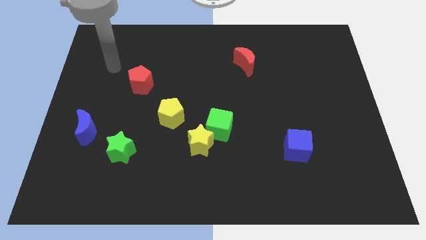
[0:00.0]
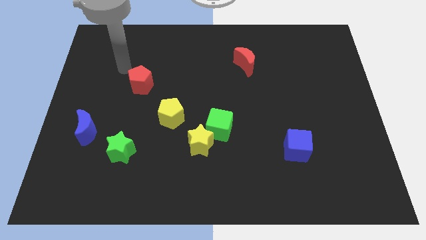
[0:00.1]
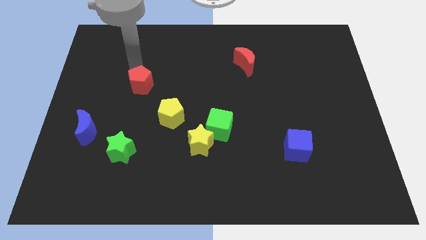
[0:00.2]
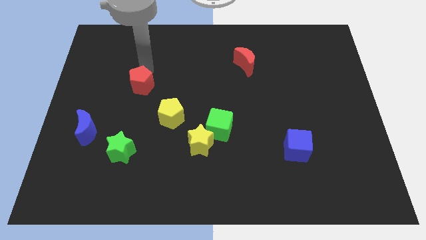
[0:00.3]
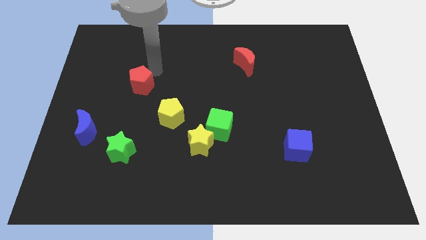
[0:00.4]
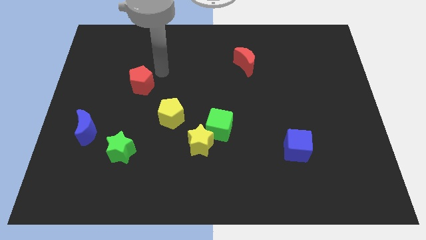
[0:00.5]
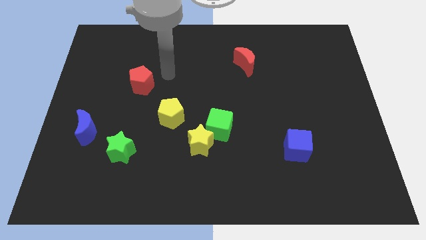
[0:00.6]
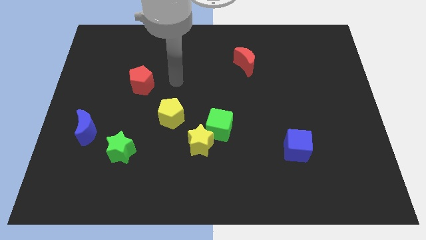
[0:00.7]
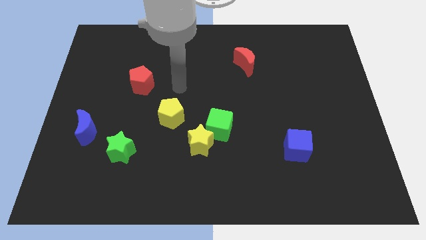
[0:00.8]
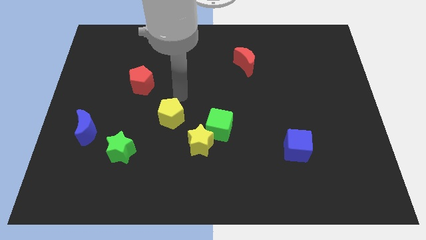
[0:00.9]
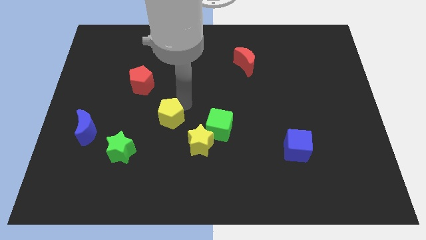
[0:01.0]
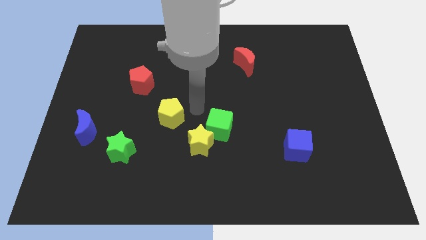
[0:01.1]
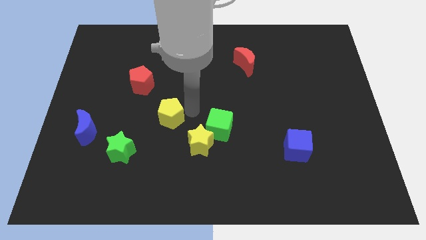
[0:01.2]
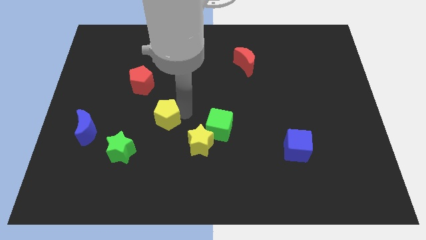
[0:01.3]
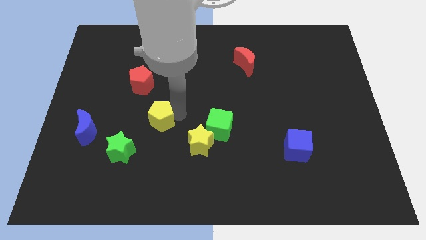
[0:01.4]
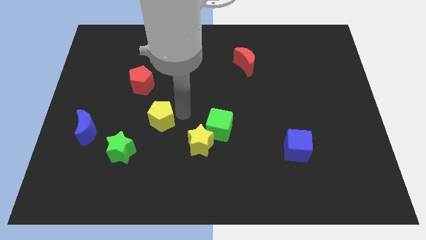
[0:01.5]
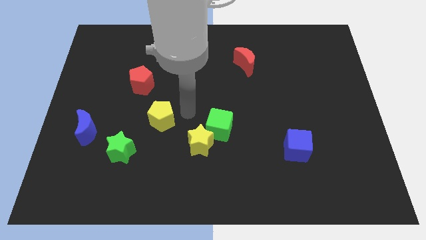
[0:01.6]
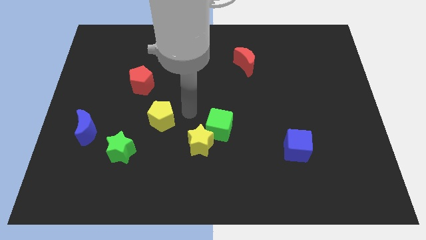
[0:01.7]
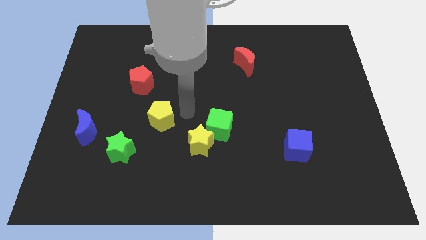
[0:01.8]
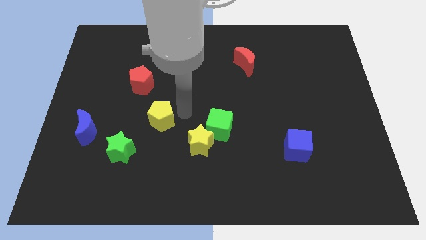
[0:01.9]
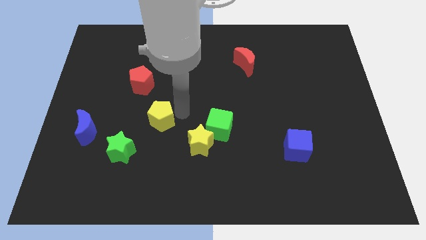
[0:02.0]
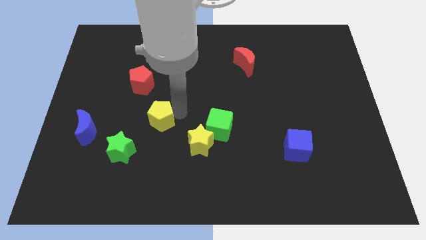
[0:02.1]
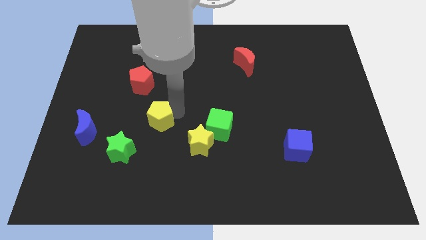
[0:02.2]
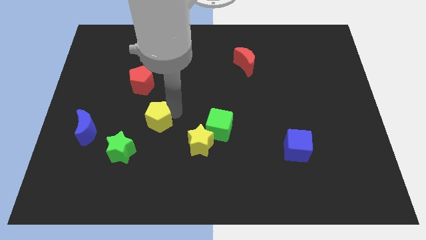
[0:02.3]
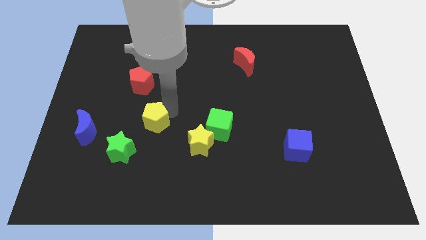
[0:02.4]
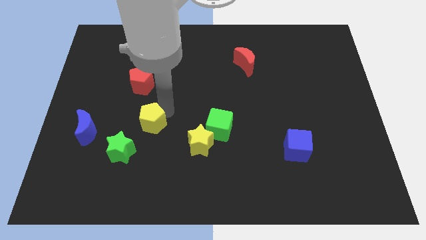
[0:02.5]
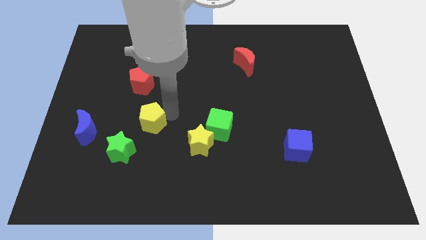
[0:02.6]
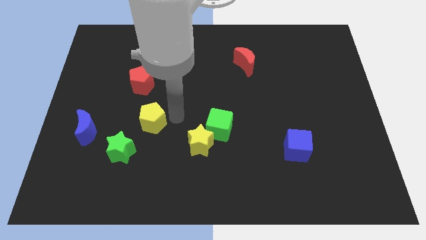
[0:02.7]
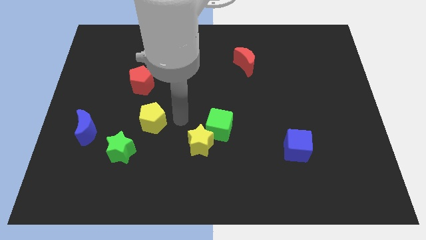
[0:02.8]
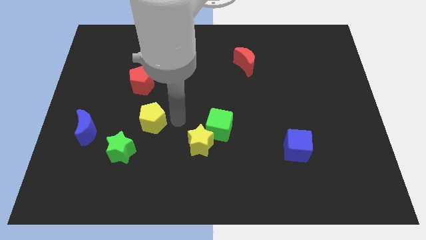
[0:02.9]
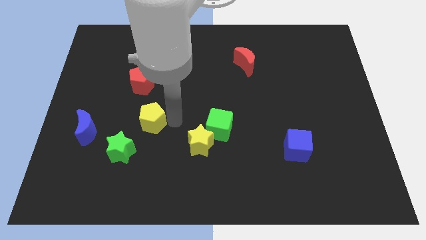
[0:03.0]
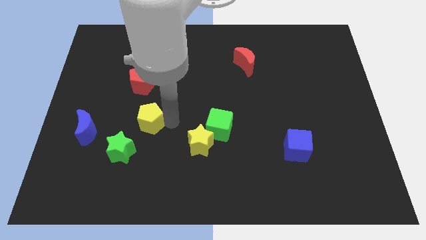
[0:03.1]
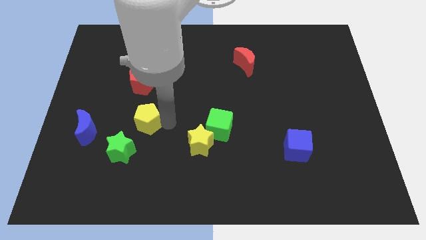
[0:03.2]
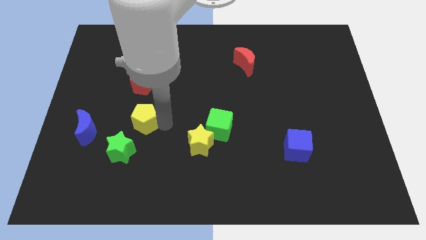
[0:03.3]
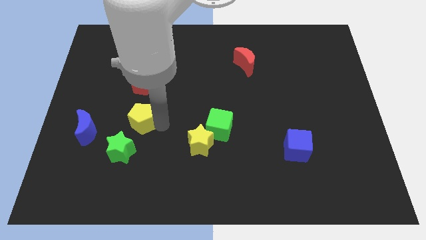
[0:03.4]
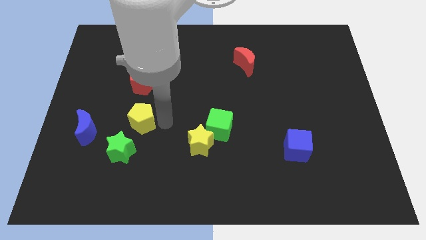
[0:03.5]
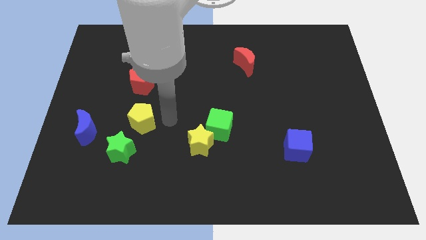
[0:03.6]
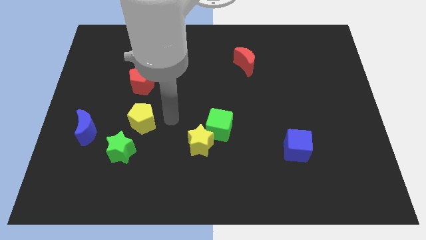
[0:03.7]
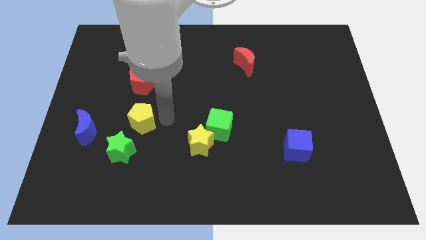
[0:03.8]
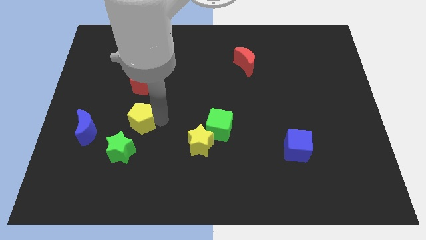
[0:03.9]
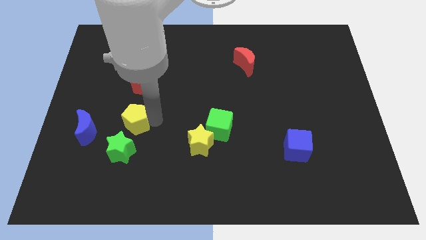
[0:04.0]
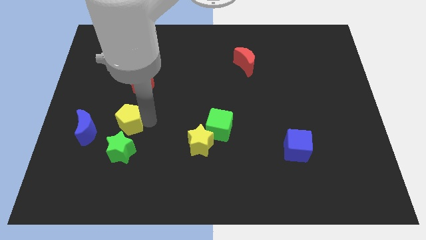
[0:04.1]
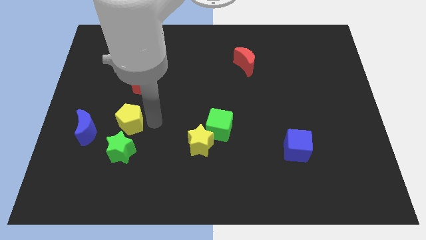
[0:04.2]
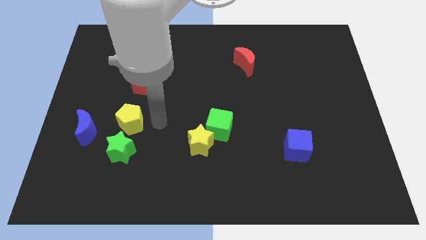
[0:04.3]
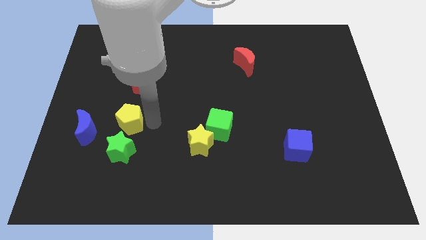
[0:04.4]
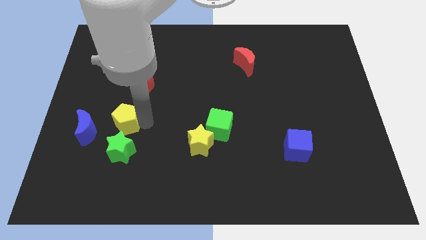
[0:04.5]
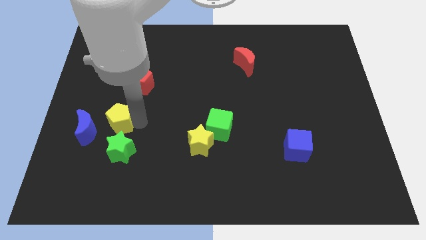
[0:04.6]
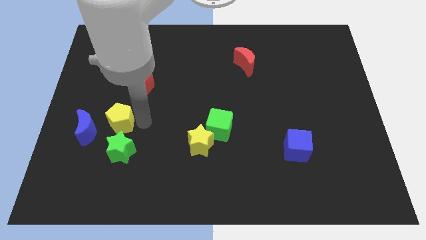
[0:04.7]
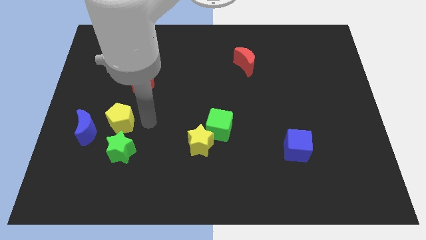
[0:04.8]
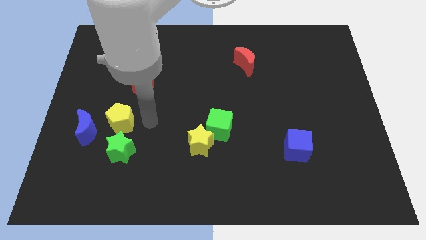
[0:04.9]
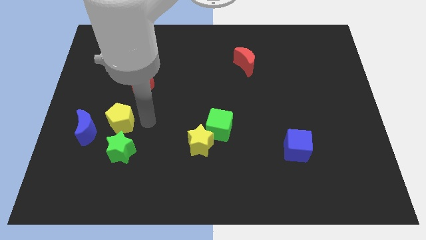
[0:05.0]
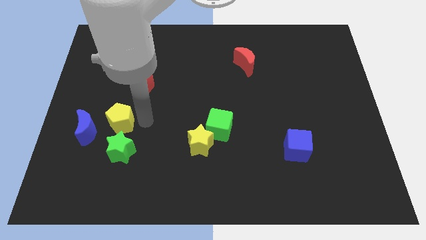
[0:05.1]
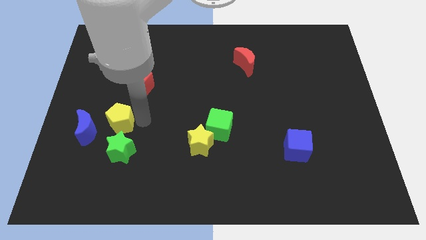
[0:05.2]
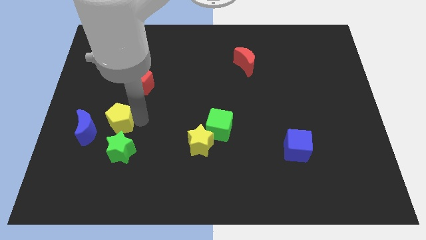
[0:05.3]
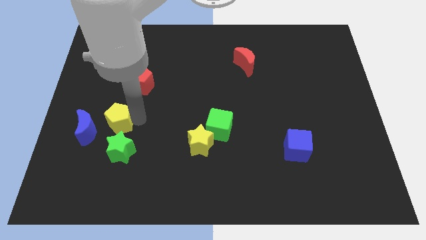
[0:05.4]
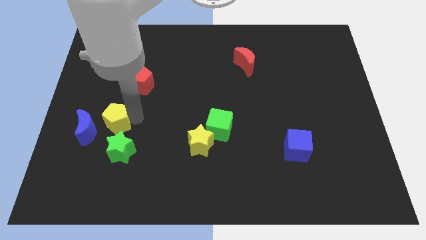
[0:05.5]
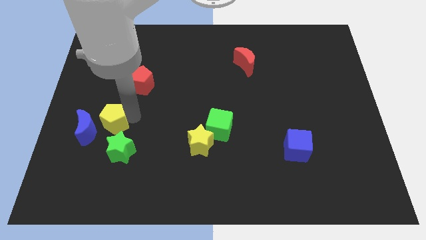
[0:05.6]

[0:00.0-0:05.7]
put the yellow pentagon to the blue moon

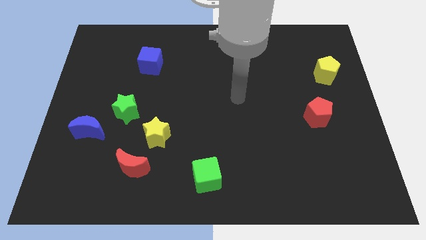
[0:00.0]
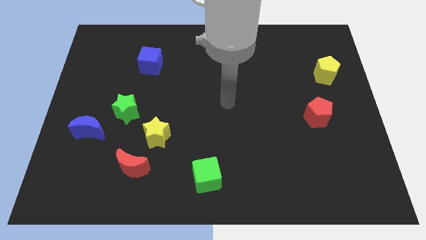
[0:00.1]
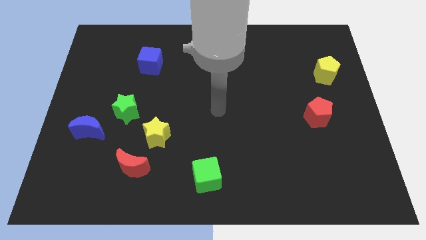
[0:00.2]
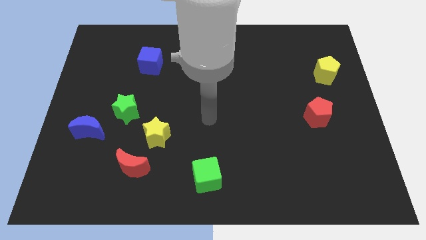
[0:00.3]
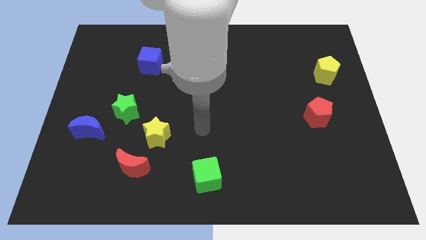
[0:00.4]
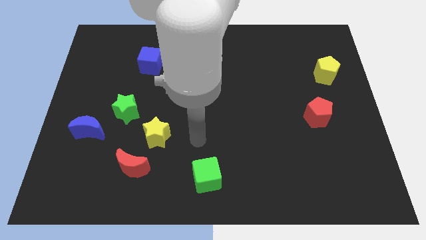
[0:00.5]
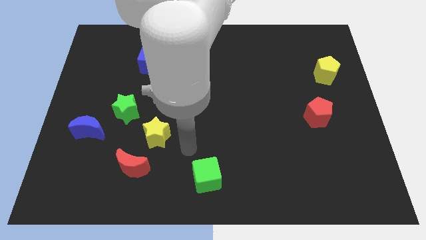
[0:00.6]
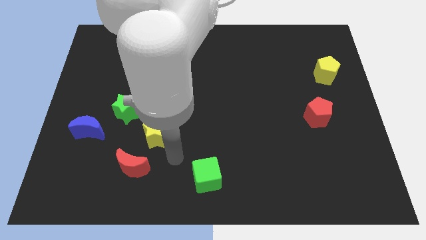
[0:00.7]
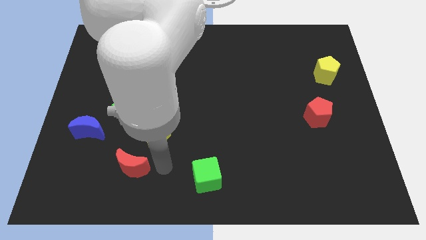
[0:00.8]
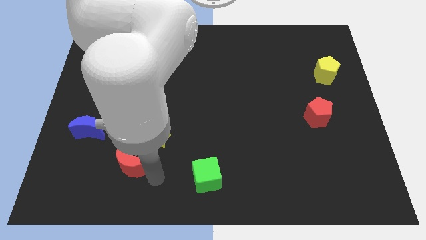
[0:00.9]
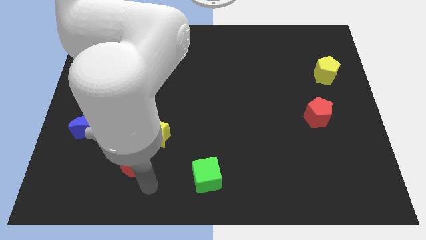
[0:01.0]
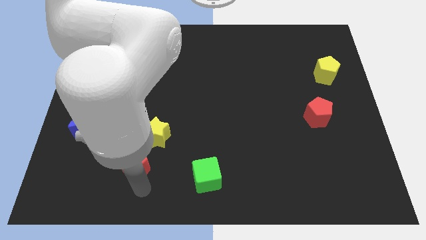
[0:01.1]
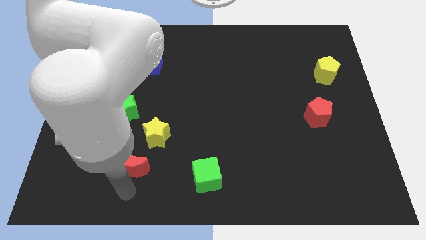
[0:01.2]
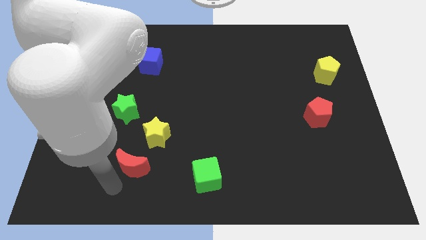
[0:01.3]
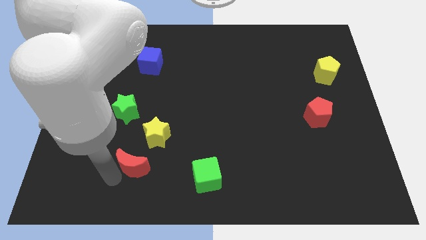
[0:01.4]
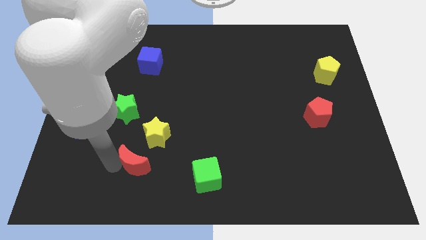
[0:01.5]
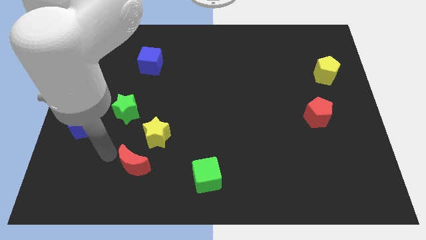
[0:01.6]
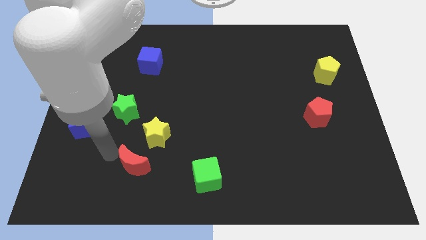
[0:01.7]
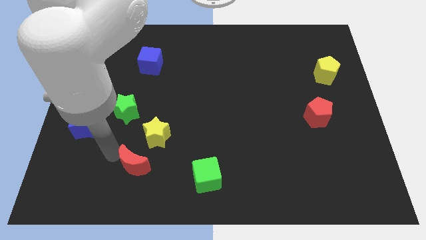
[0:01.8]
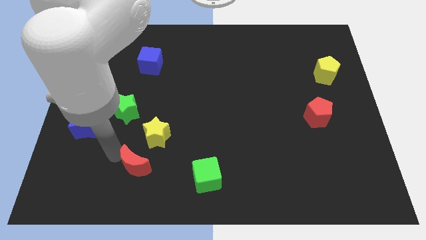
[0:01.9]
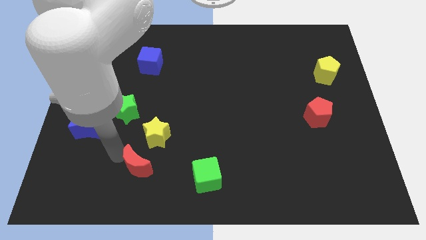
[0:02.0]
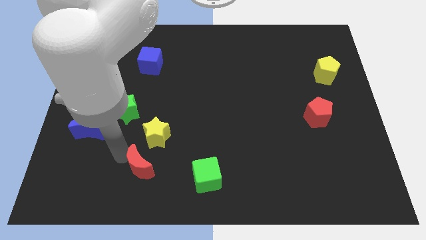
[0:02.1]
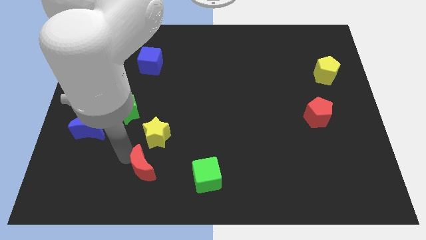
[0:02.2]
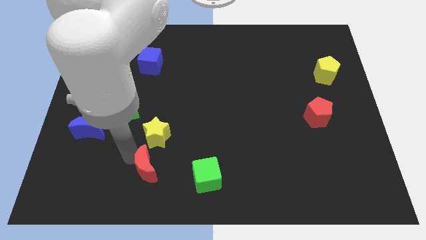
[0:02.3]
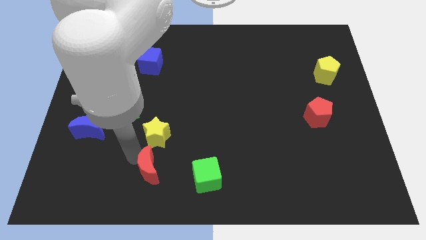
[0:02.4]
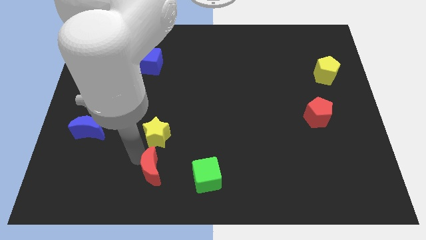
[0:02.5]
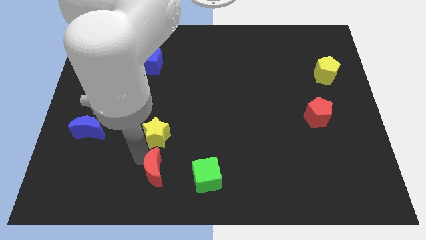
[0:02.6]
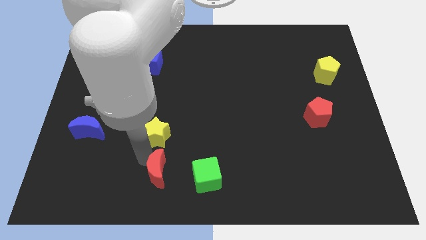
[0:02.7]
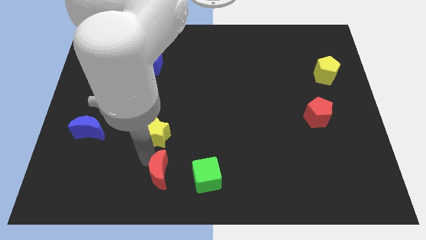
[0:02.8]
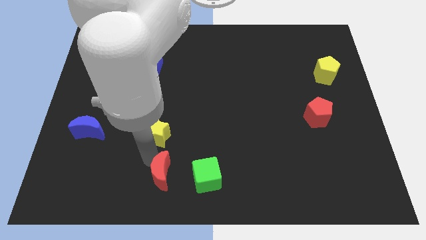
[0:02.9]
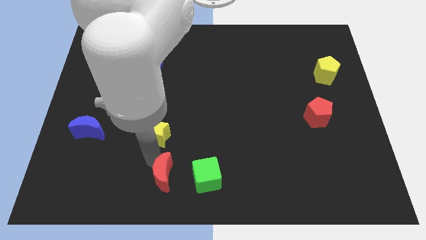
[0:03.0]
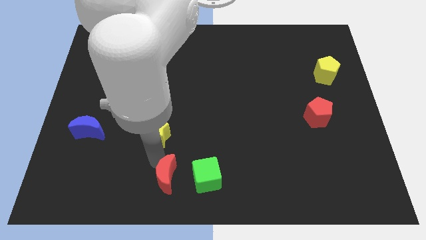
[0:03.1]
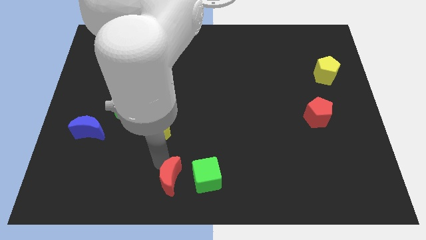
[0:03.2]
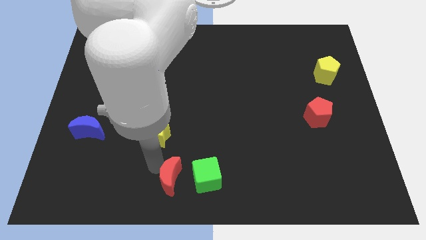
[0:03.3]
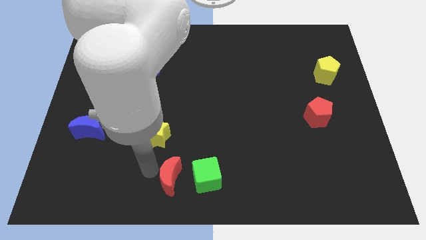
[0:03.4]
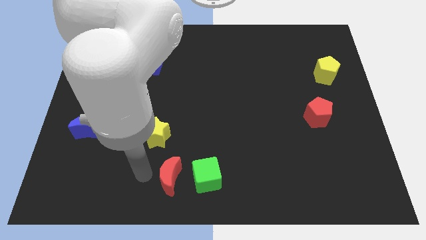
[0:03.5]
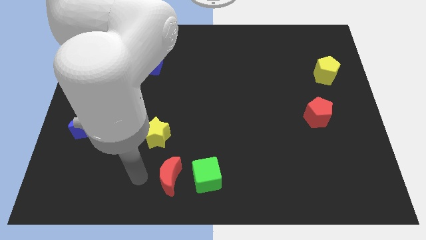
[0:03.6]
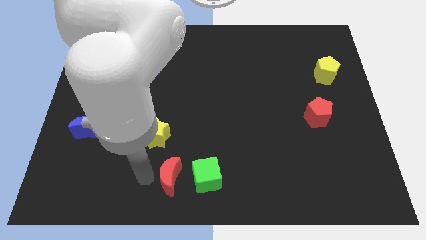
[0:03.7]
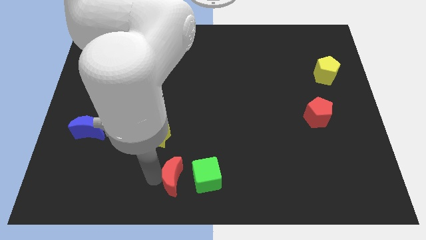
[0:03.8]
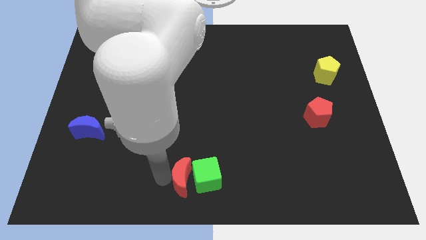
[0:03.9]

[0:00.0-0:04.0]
move the red moon towards the green cube
